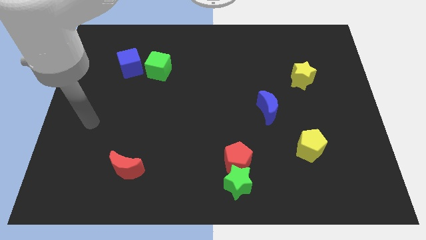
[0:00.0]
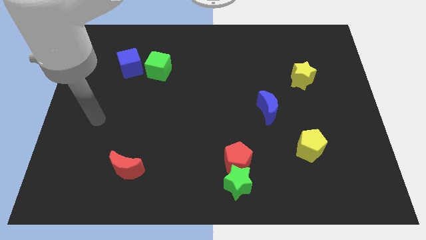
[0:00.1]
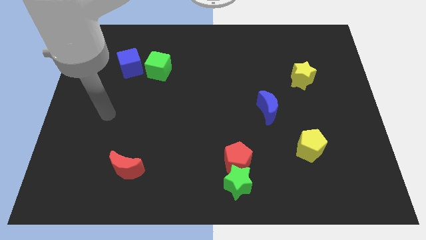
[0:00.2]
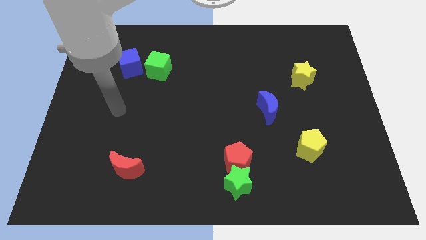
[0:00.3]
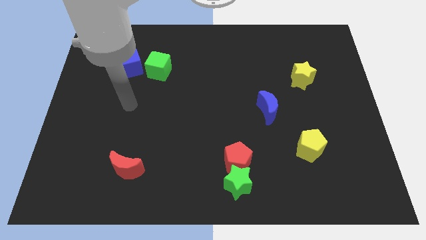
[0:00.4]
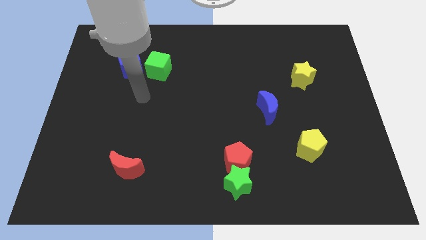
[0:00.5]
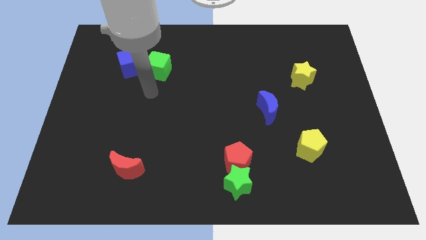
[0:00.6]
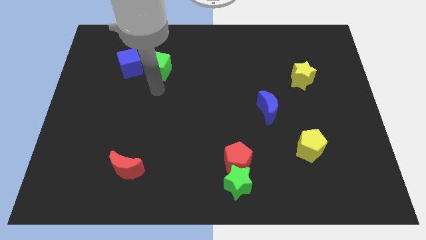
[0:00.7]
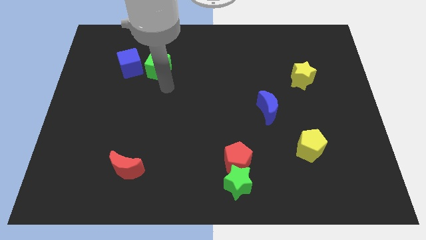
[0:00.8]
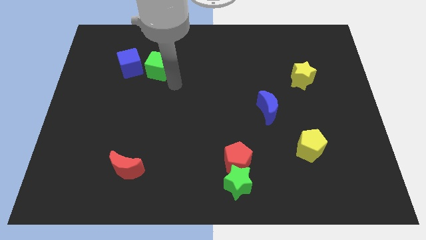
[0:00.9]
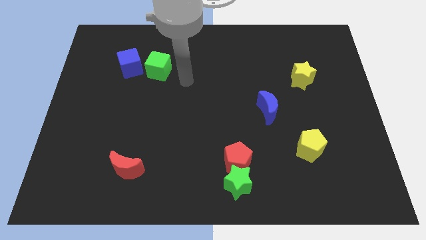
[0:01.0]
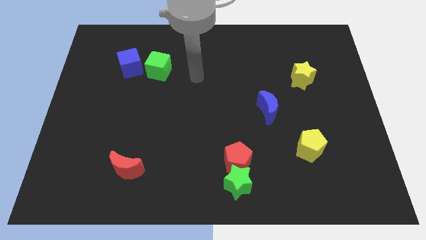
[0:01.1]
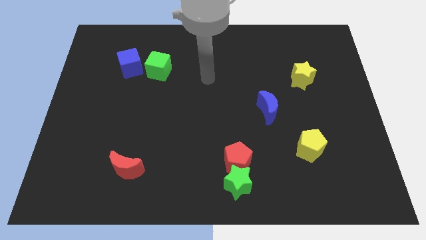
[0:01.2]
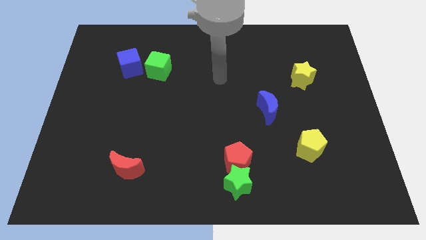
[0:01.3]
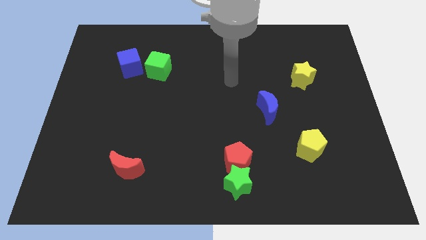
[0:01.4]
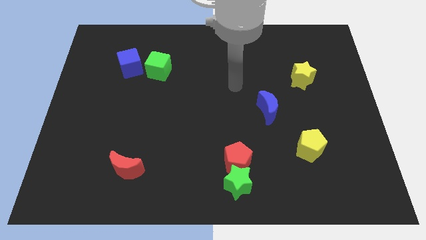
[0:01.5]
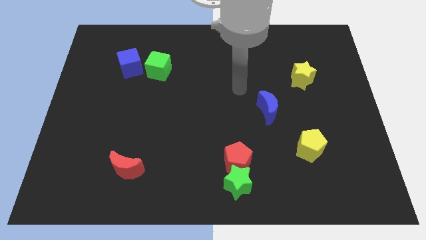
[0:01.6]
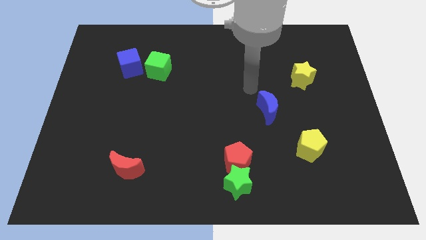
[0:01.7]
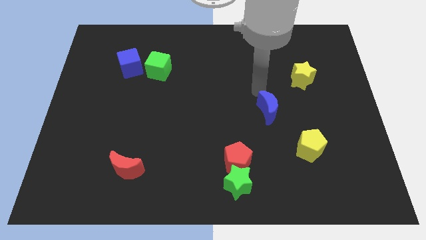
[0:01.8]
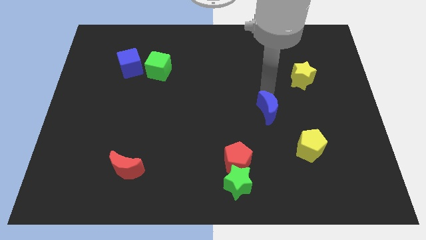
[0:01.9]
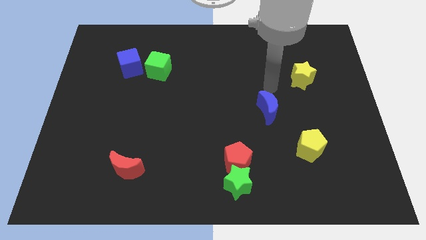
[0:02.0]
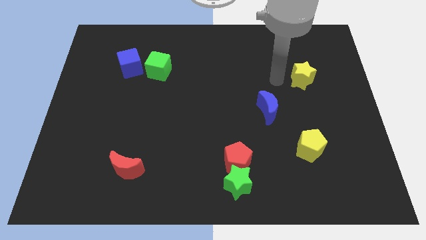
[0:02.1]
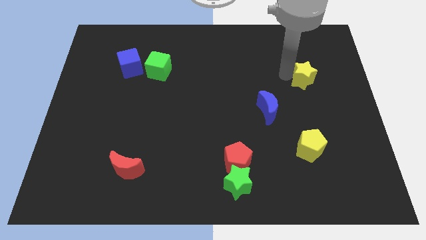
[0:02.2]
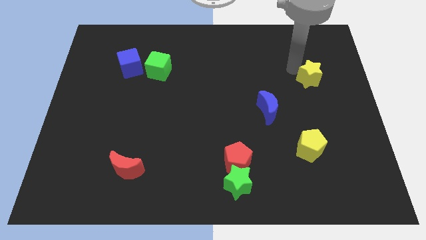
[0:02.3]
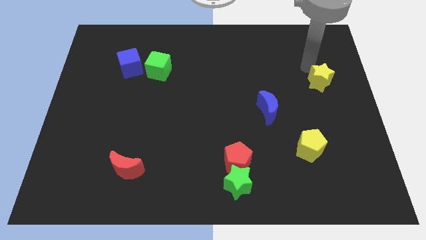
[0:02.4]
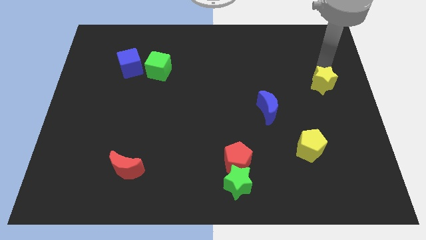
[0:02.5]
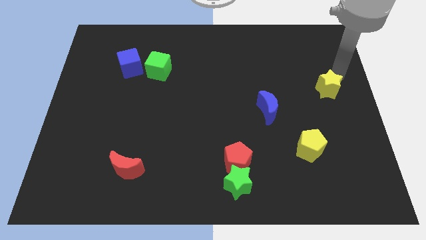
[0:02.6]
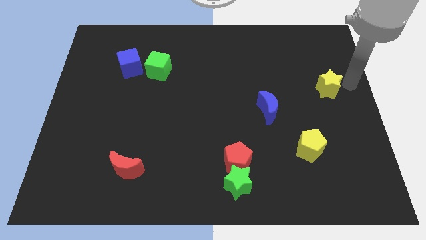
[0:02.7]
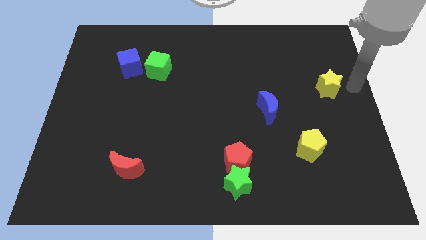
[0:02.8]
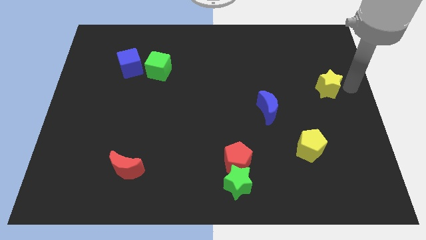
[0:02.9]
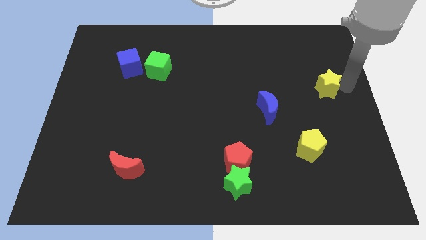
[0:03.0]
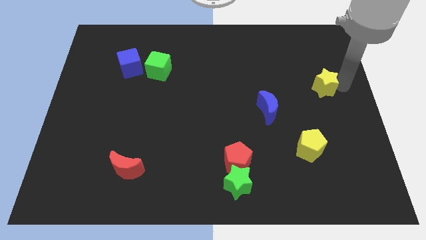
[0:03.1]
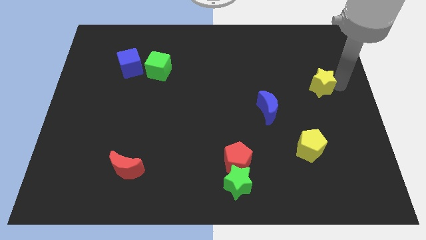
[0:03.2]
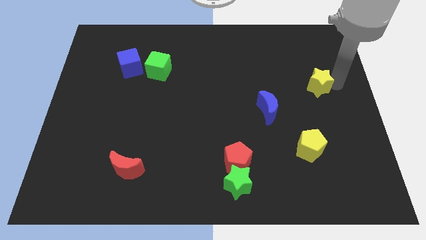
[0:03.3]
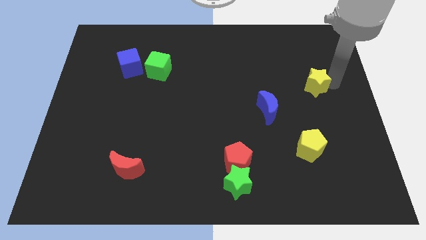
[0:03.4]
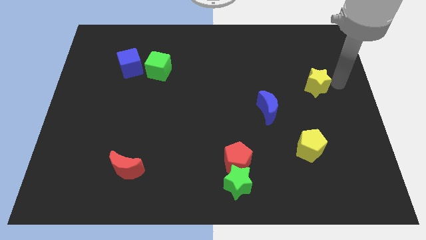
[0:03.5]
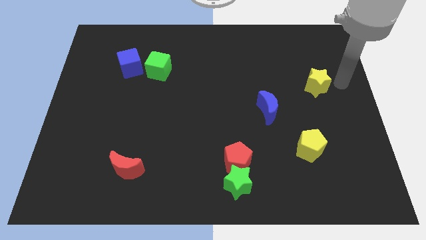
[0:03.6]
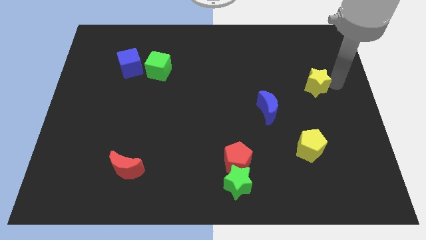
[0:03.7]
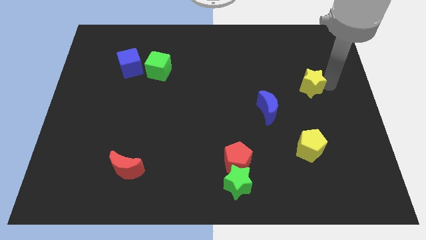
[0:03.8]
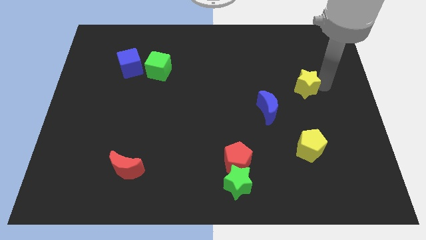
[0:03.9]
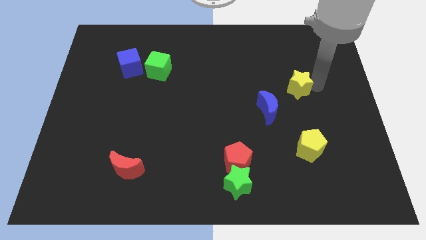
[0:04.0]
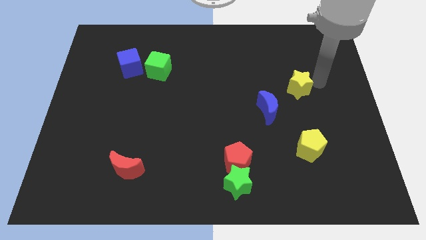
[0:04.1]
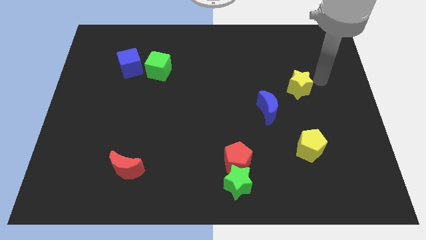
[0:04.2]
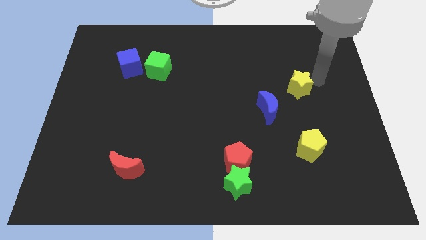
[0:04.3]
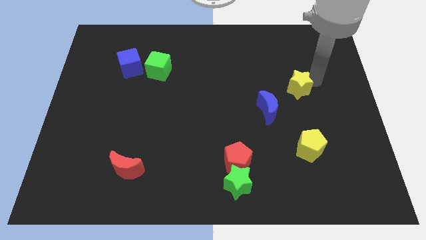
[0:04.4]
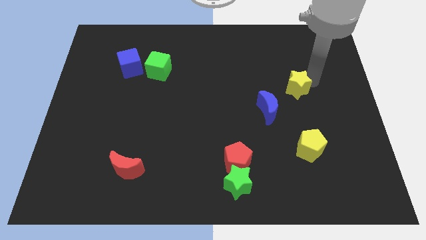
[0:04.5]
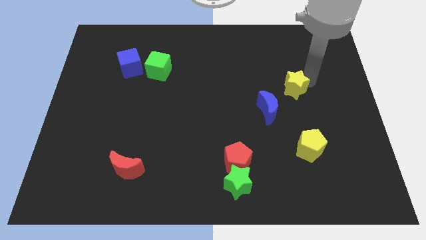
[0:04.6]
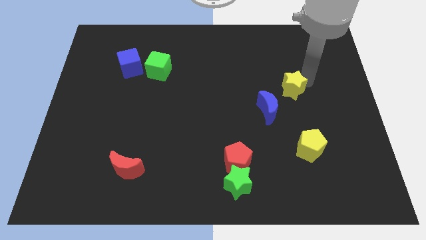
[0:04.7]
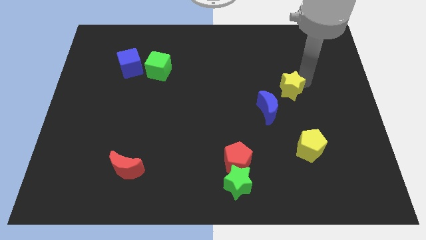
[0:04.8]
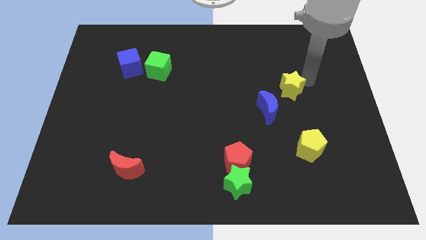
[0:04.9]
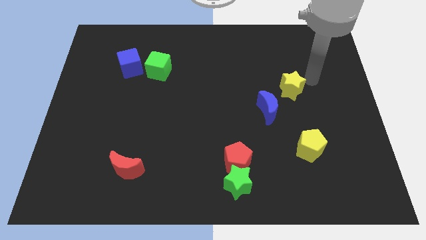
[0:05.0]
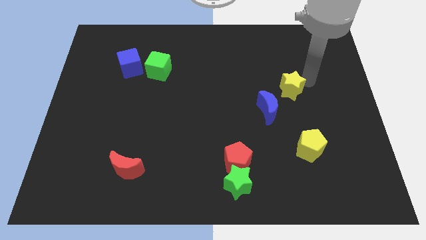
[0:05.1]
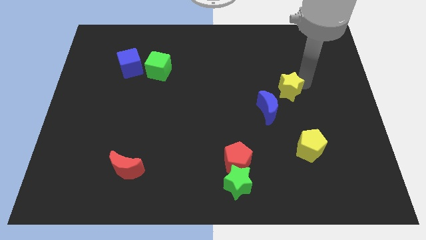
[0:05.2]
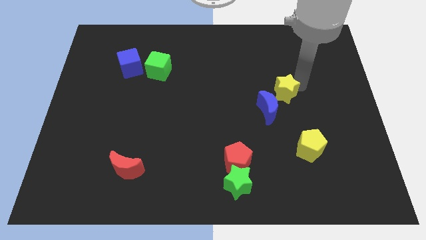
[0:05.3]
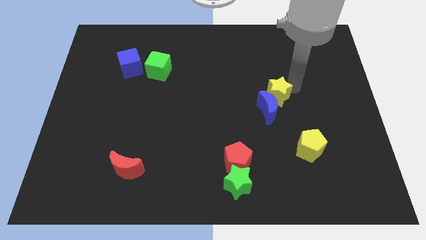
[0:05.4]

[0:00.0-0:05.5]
move the yellow star next to the blue moon

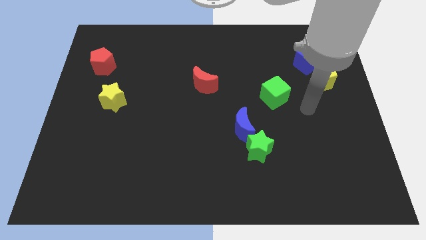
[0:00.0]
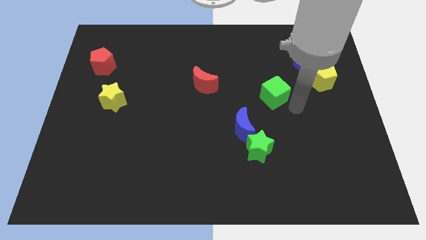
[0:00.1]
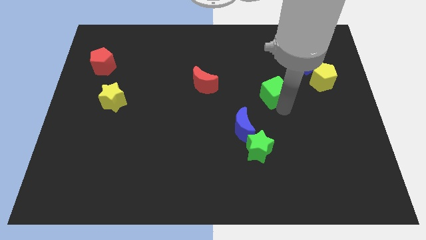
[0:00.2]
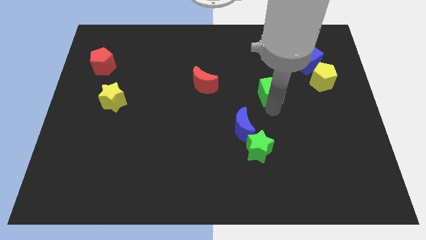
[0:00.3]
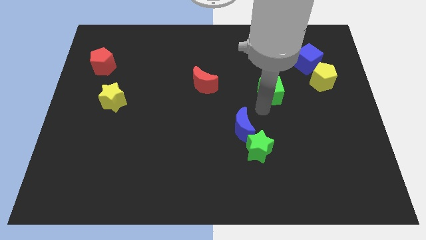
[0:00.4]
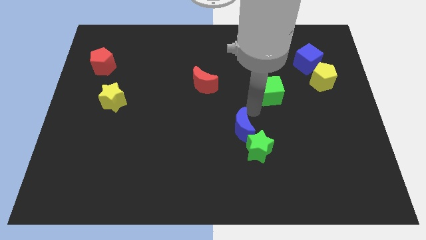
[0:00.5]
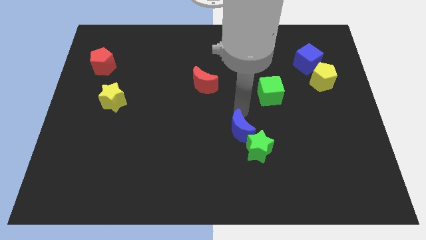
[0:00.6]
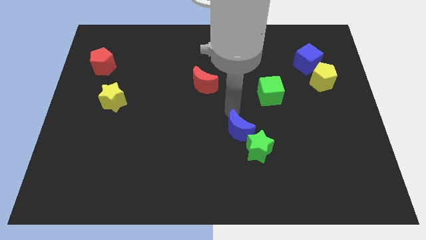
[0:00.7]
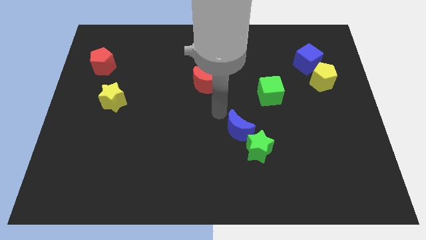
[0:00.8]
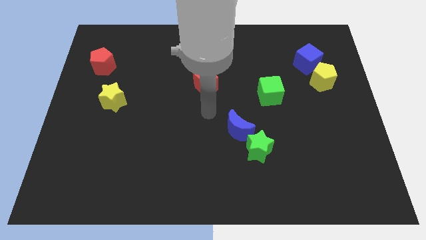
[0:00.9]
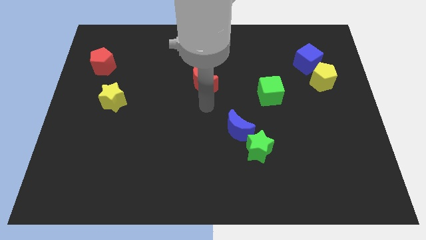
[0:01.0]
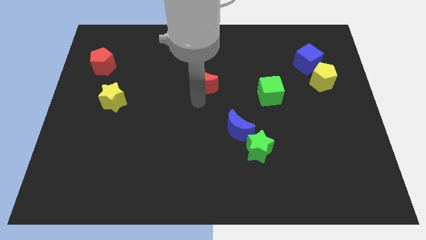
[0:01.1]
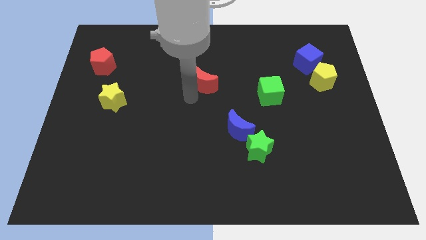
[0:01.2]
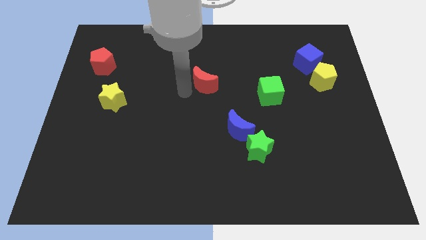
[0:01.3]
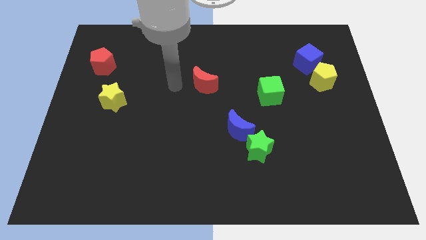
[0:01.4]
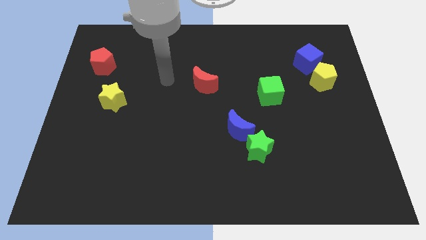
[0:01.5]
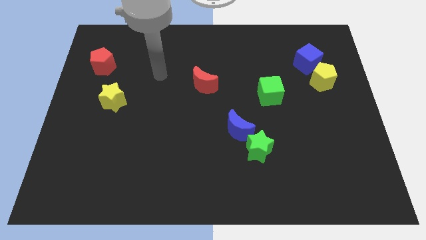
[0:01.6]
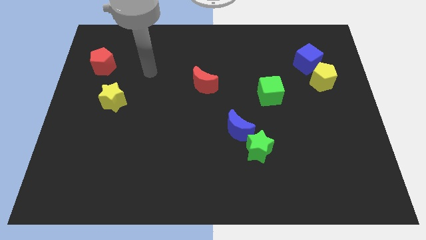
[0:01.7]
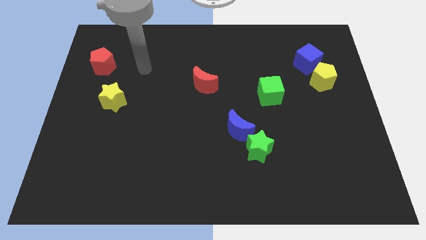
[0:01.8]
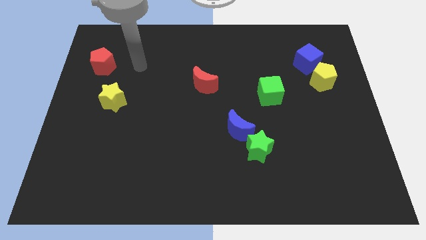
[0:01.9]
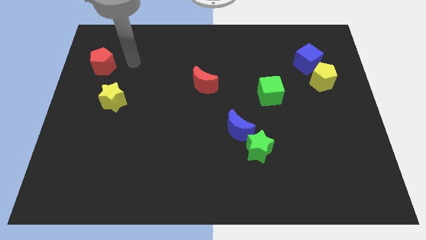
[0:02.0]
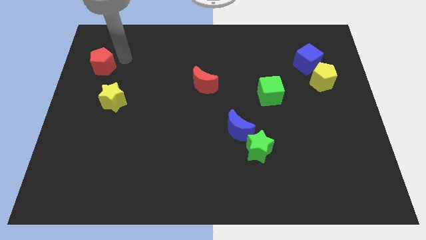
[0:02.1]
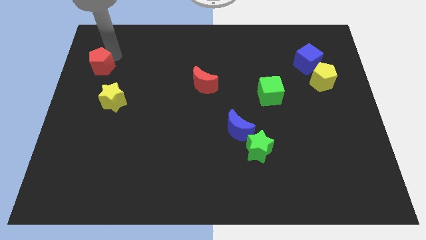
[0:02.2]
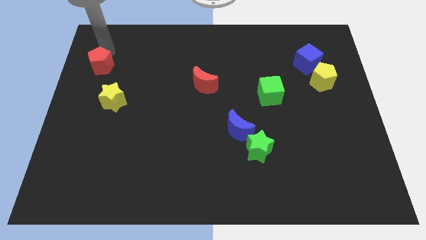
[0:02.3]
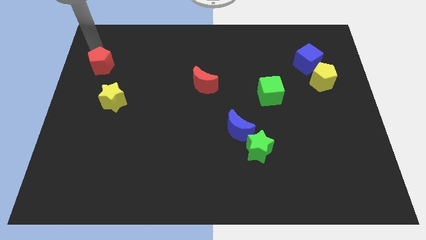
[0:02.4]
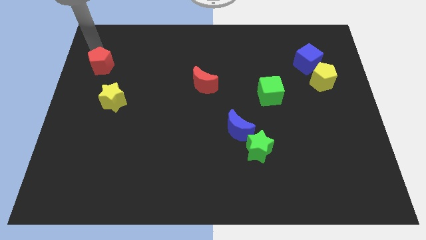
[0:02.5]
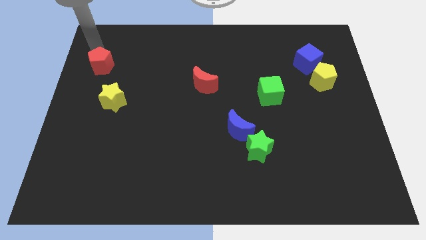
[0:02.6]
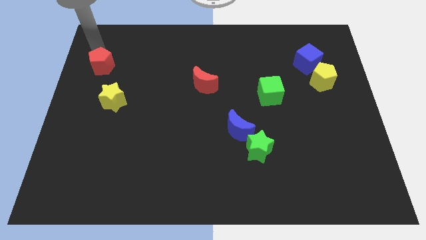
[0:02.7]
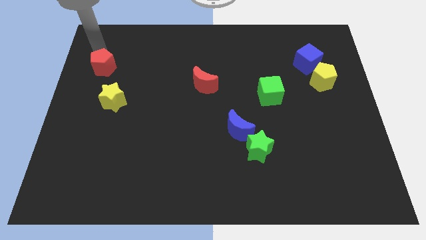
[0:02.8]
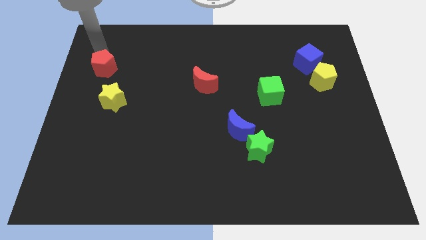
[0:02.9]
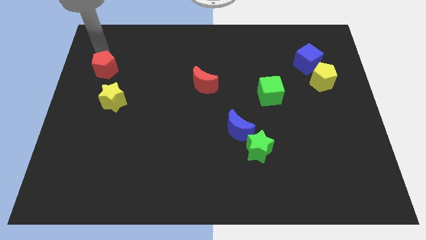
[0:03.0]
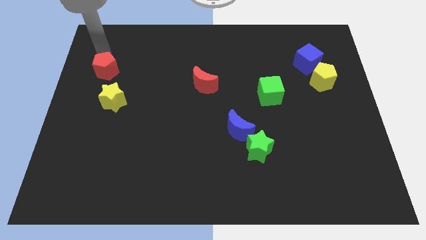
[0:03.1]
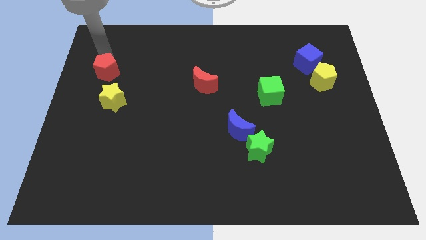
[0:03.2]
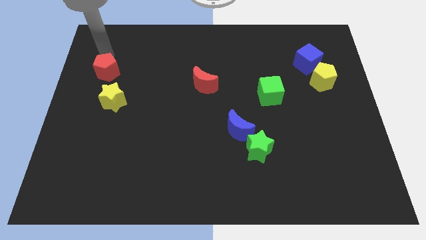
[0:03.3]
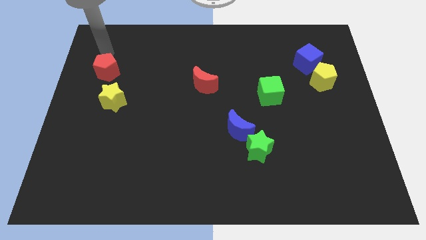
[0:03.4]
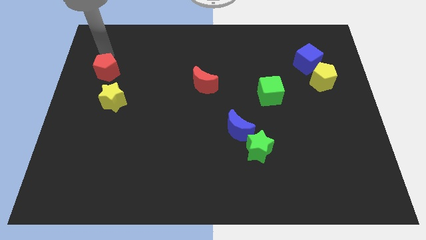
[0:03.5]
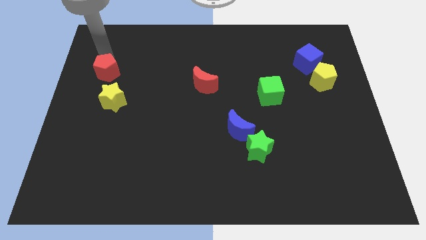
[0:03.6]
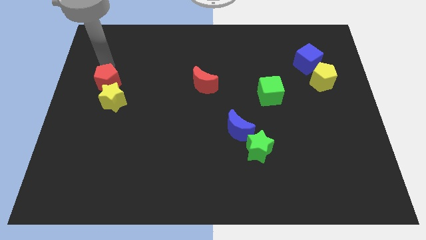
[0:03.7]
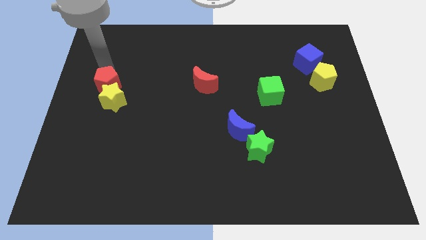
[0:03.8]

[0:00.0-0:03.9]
put the red pentagon close to the yellow star
